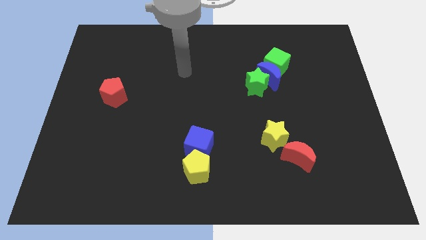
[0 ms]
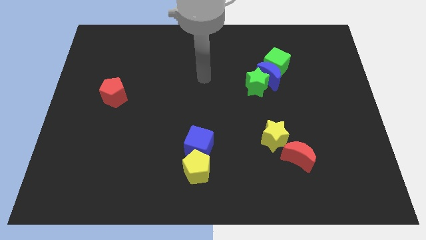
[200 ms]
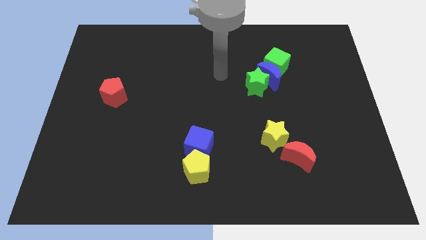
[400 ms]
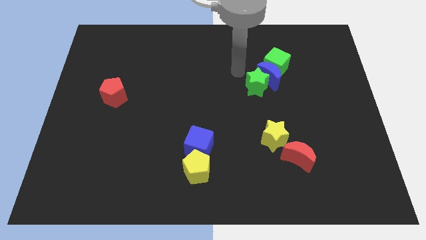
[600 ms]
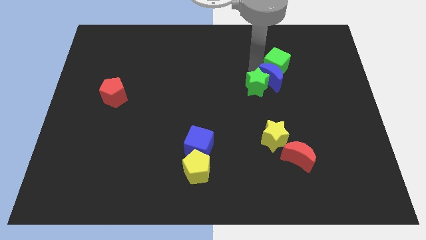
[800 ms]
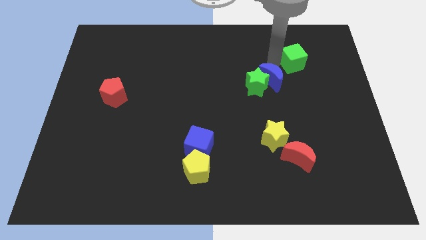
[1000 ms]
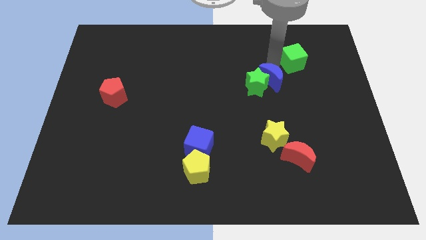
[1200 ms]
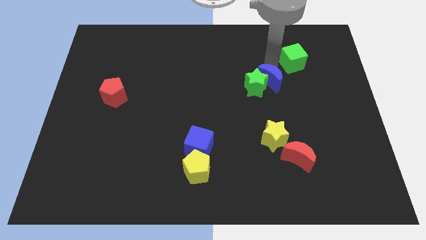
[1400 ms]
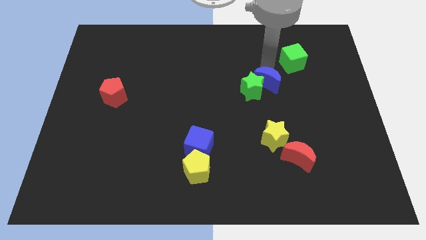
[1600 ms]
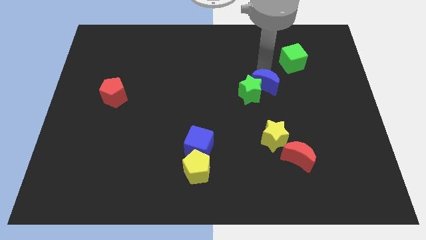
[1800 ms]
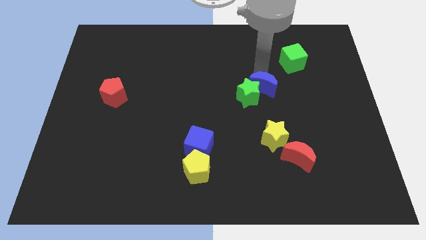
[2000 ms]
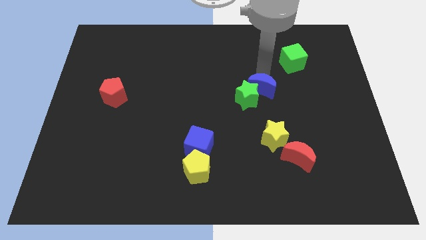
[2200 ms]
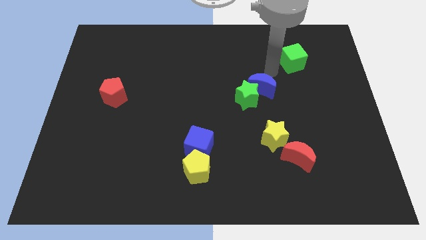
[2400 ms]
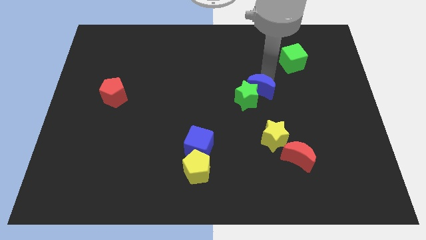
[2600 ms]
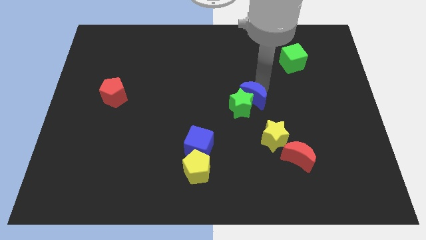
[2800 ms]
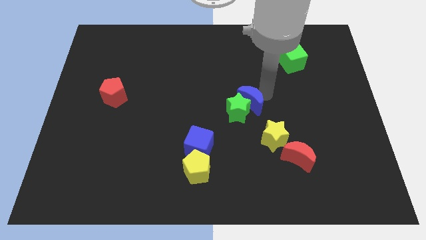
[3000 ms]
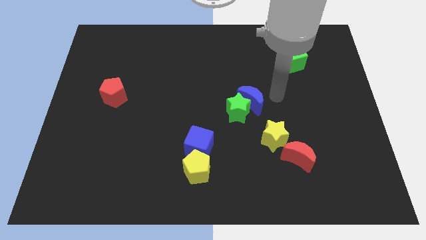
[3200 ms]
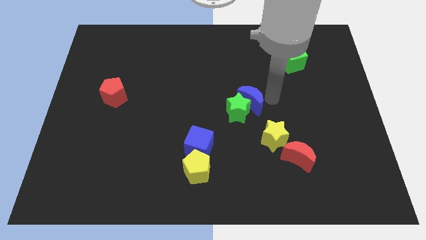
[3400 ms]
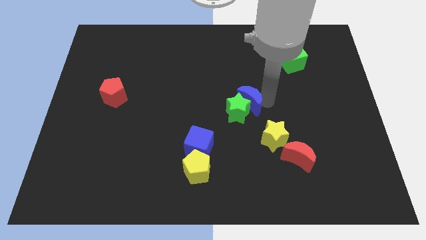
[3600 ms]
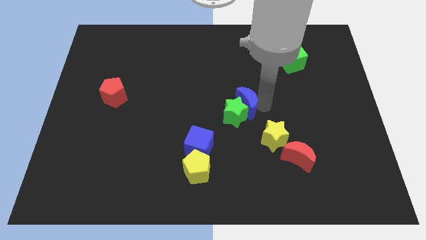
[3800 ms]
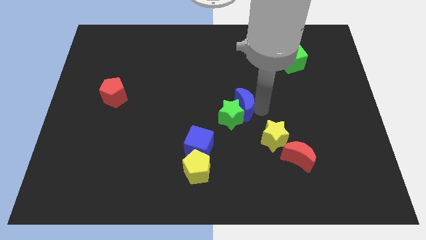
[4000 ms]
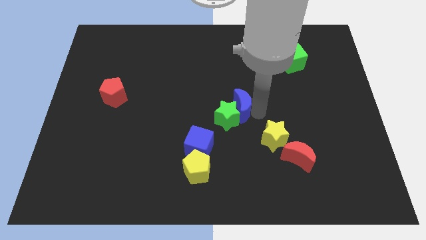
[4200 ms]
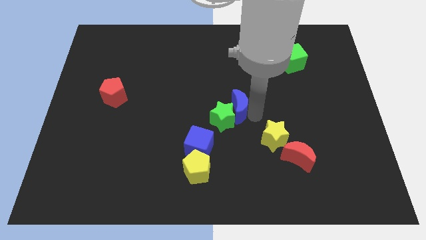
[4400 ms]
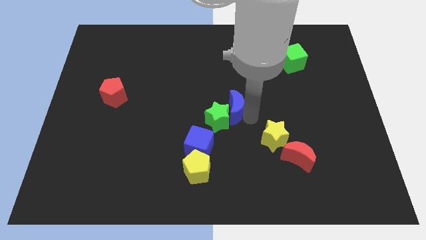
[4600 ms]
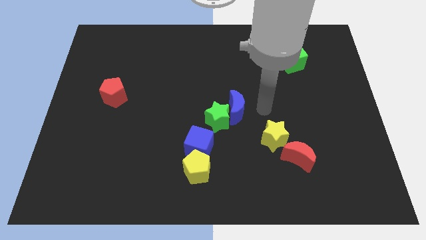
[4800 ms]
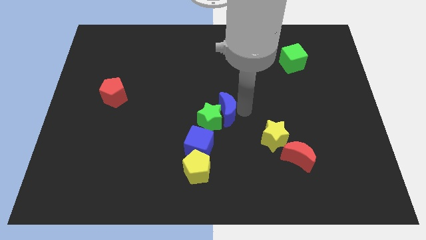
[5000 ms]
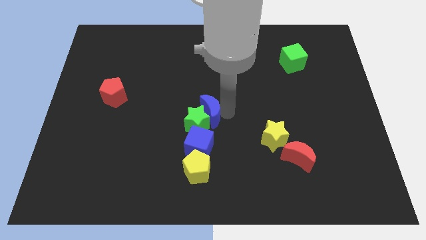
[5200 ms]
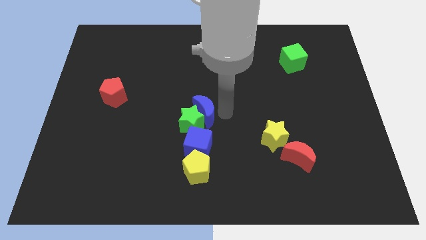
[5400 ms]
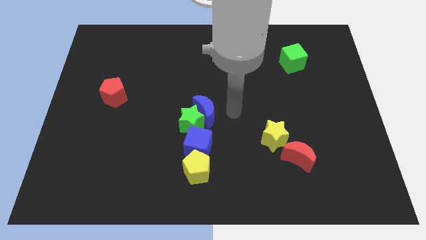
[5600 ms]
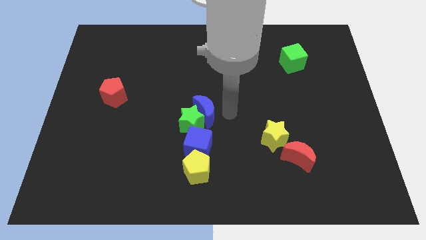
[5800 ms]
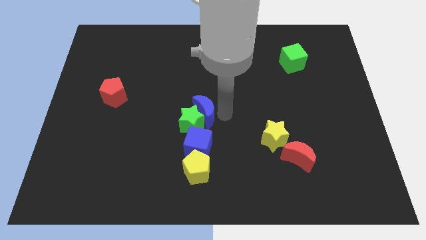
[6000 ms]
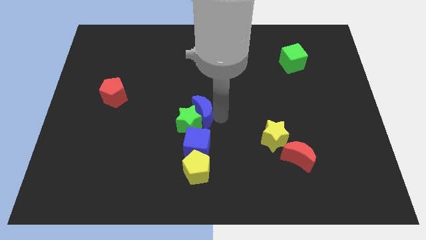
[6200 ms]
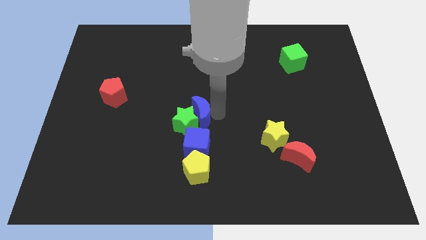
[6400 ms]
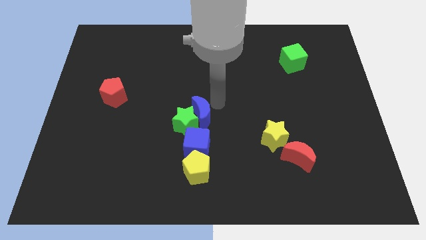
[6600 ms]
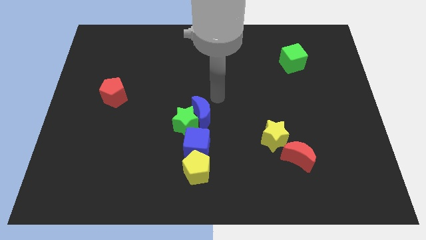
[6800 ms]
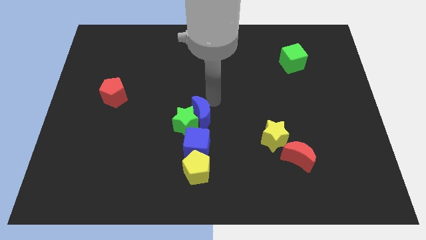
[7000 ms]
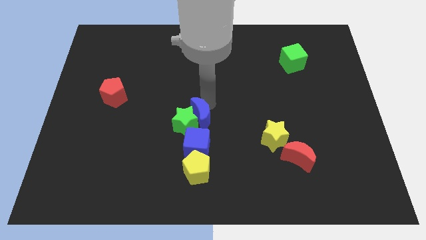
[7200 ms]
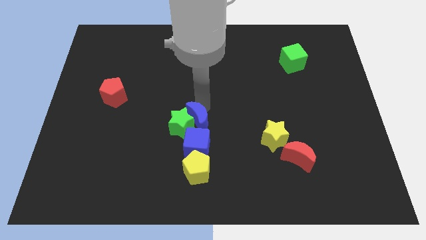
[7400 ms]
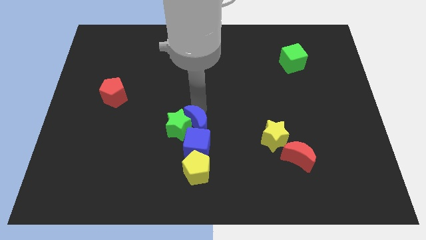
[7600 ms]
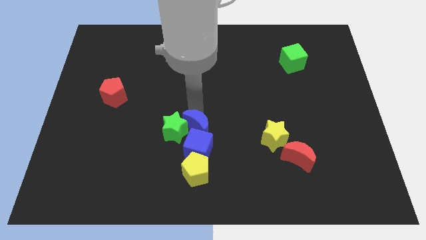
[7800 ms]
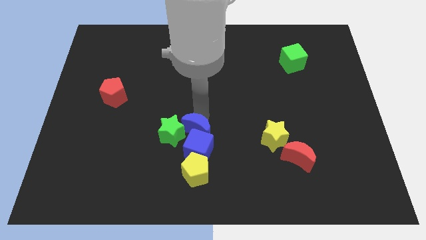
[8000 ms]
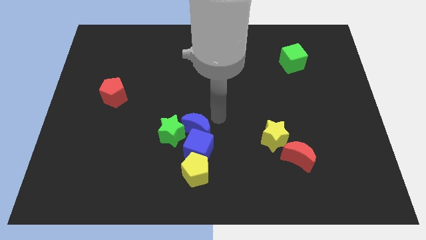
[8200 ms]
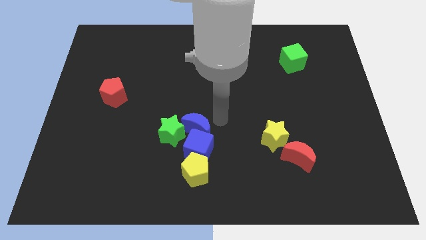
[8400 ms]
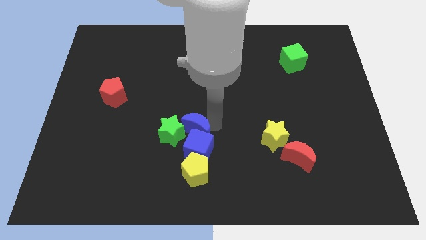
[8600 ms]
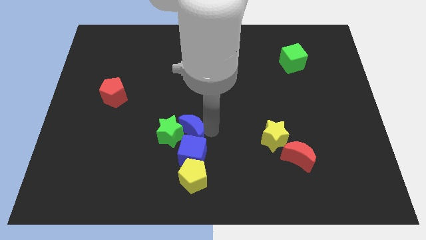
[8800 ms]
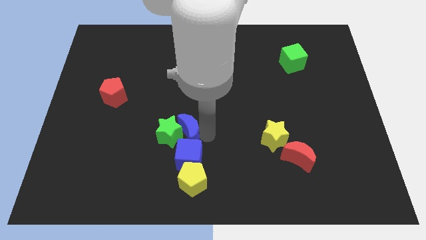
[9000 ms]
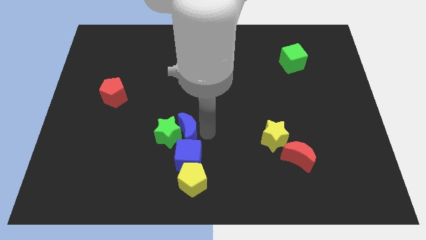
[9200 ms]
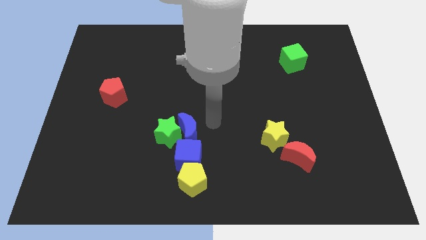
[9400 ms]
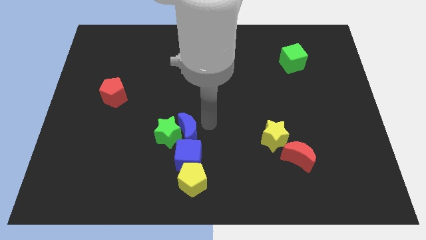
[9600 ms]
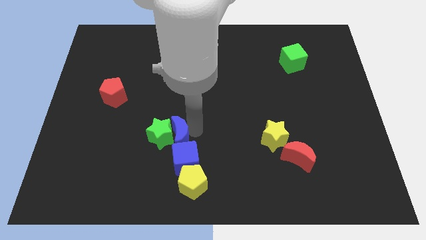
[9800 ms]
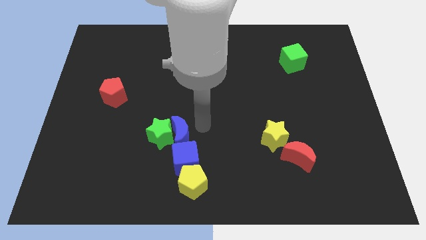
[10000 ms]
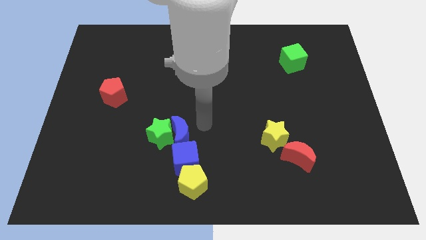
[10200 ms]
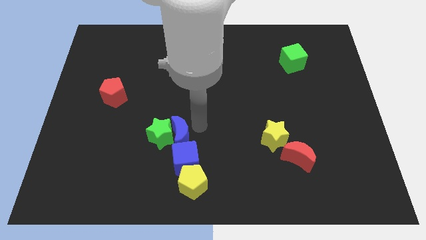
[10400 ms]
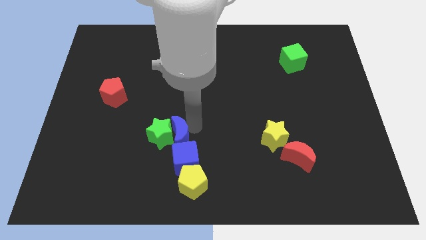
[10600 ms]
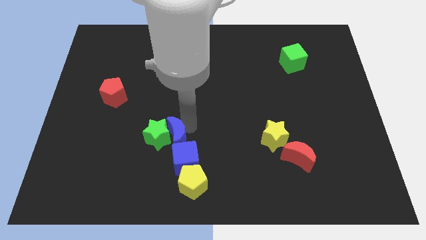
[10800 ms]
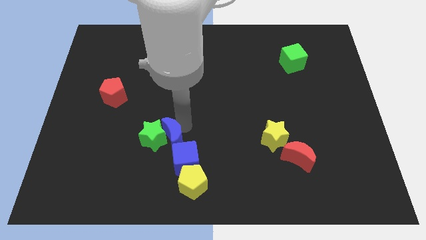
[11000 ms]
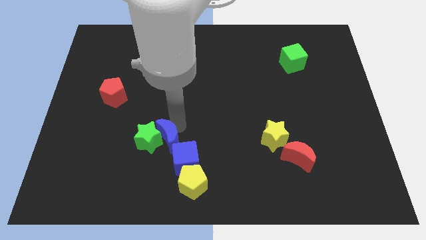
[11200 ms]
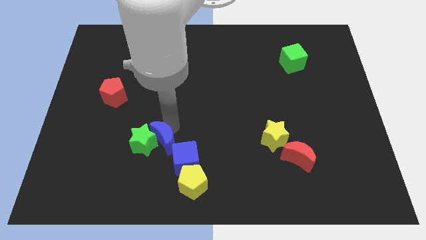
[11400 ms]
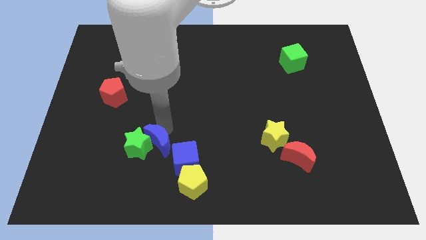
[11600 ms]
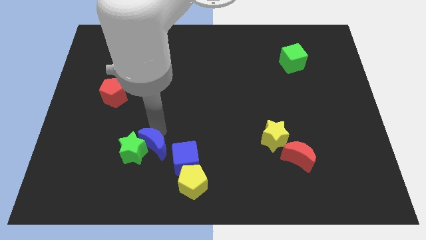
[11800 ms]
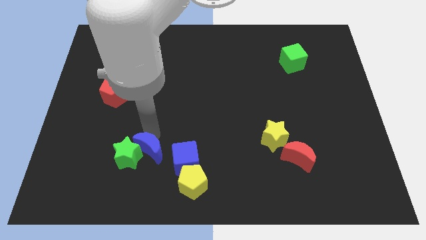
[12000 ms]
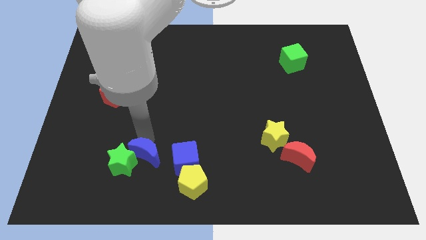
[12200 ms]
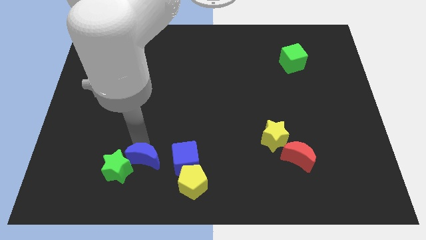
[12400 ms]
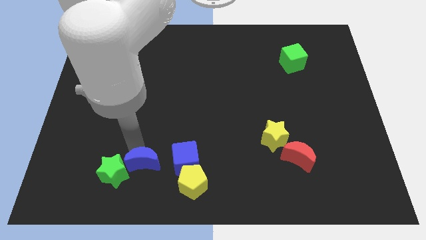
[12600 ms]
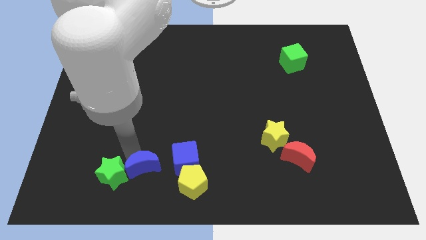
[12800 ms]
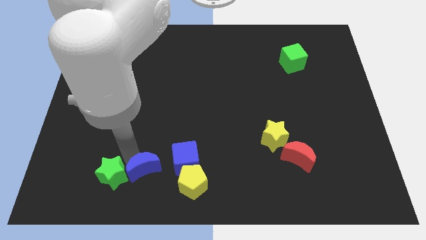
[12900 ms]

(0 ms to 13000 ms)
move the blue moon to the bottom left side of the blue cube

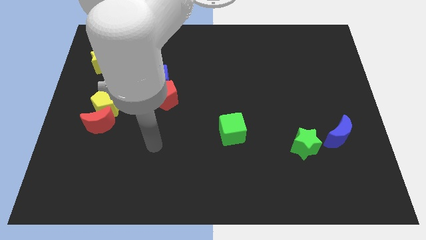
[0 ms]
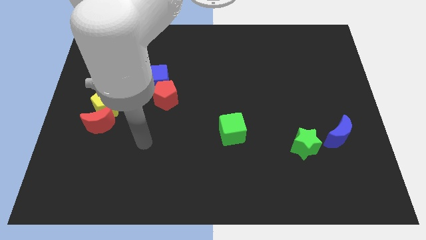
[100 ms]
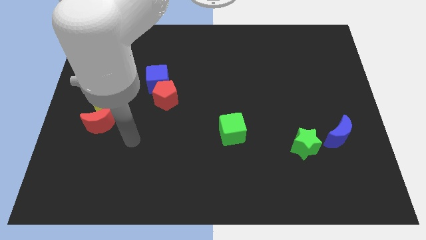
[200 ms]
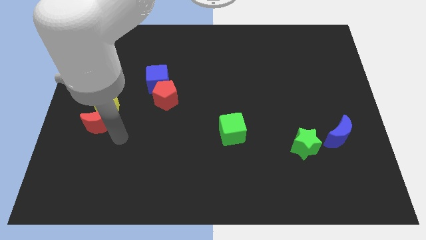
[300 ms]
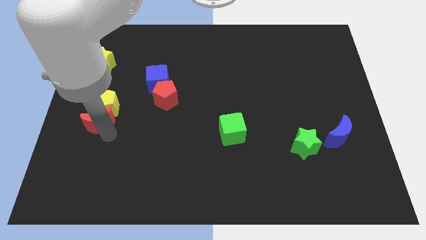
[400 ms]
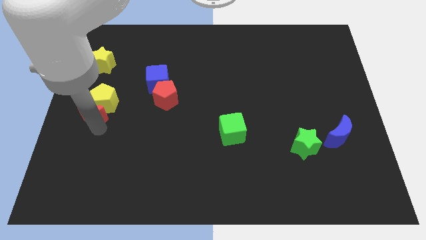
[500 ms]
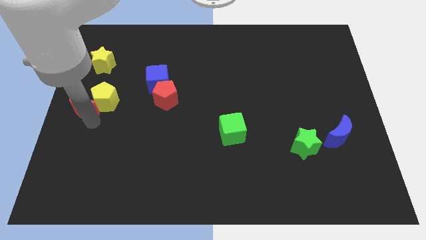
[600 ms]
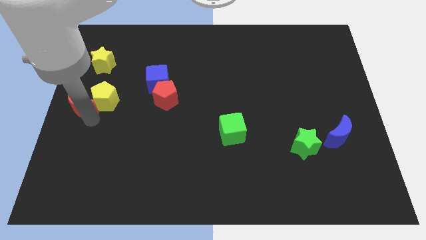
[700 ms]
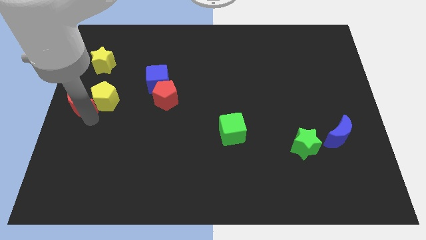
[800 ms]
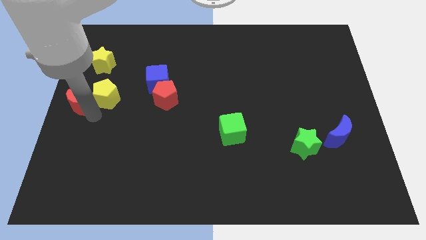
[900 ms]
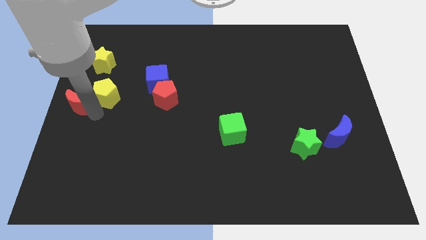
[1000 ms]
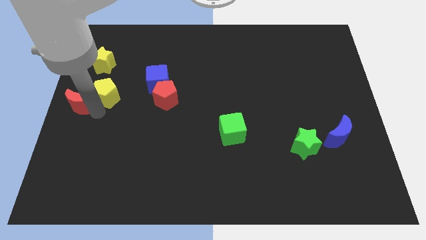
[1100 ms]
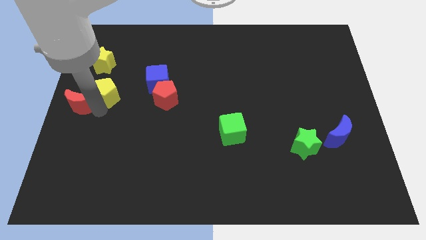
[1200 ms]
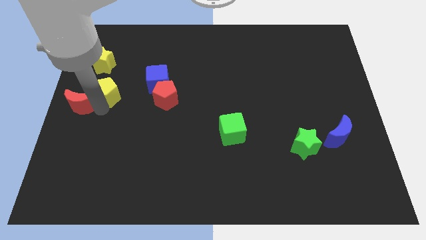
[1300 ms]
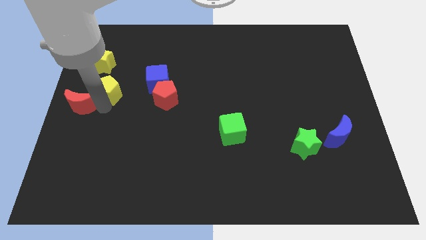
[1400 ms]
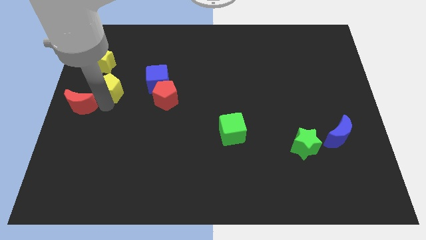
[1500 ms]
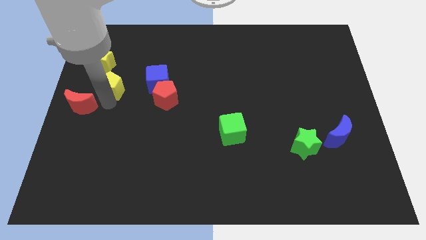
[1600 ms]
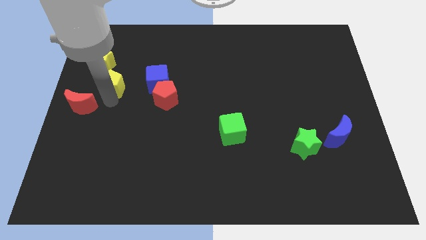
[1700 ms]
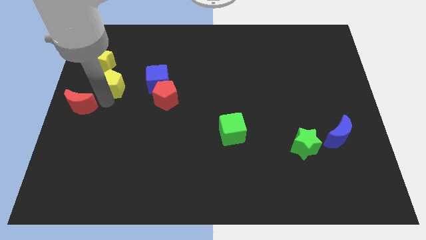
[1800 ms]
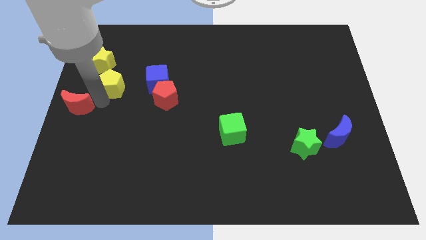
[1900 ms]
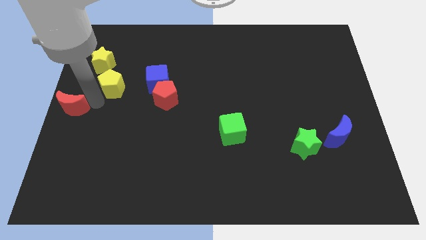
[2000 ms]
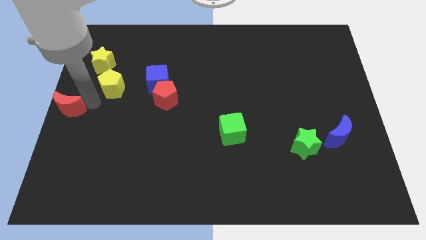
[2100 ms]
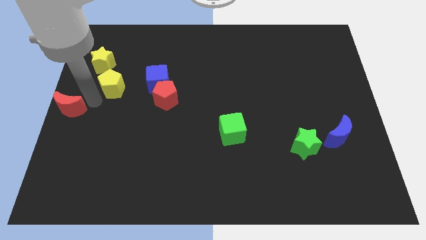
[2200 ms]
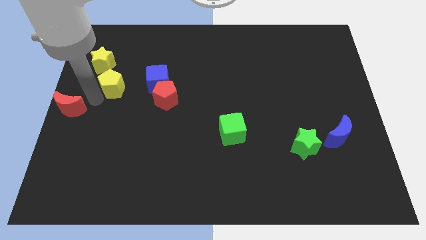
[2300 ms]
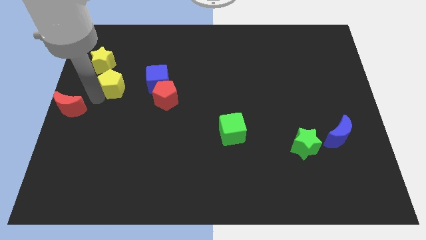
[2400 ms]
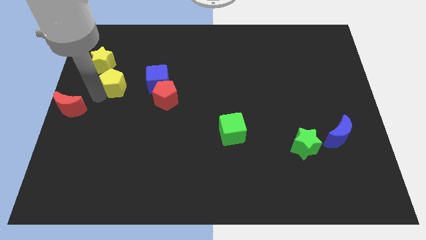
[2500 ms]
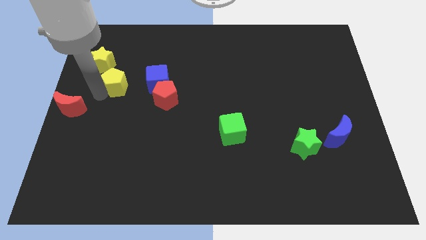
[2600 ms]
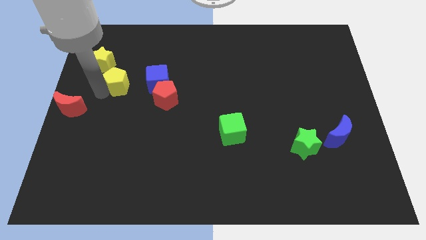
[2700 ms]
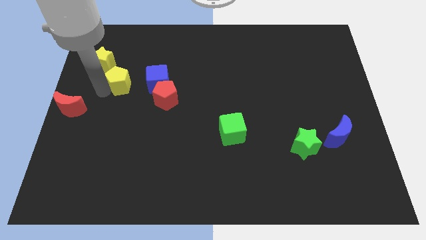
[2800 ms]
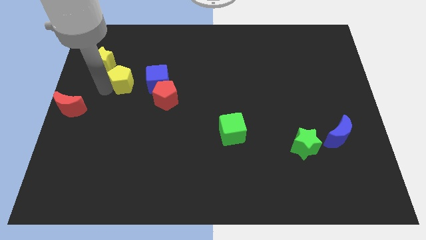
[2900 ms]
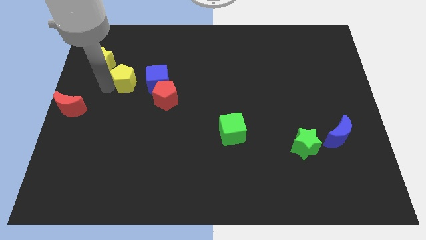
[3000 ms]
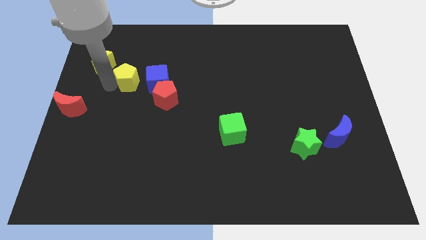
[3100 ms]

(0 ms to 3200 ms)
push the yellow pentagon diagonally up and to the left of the blue cube
